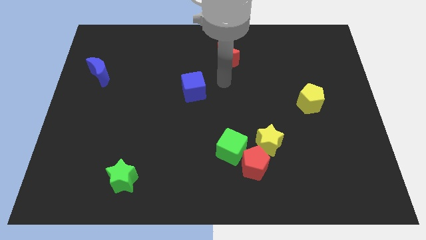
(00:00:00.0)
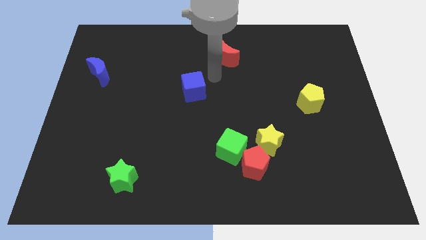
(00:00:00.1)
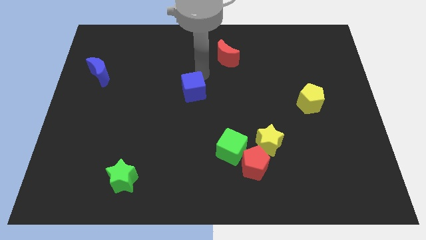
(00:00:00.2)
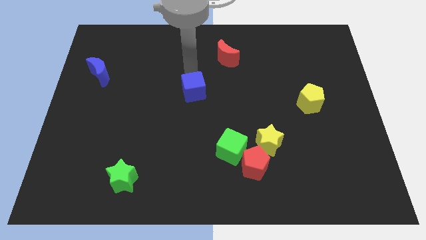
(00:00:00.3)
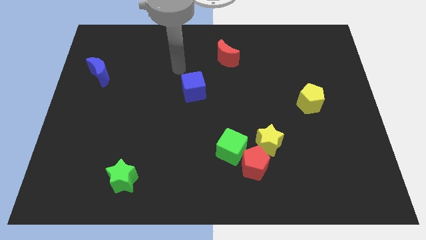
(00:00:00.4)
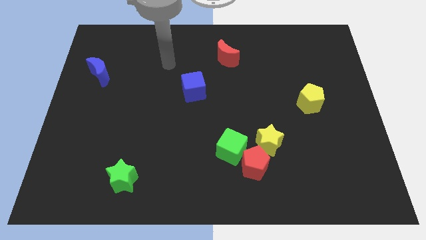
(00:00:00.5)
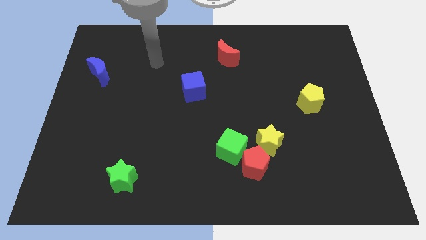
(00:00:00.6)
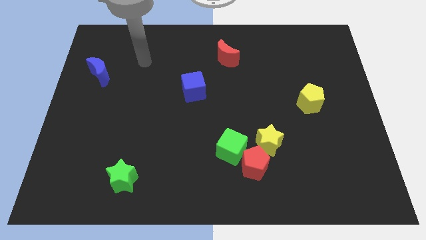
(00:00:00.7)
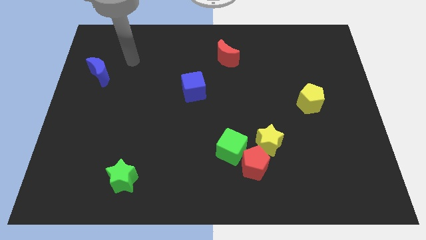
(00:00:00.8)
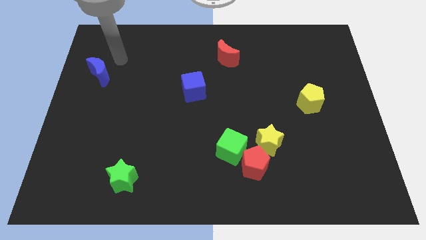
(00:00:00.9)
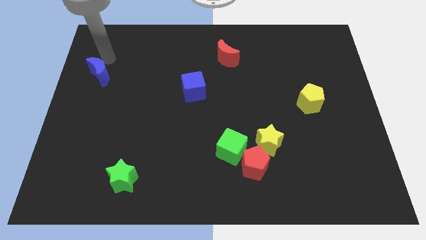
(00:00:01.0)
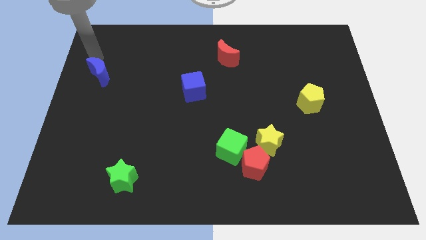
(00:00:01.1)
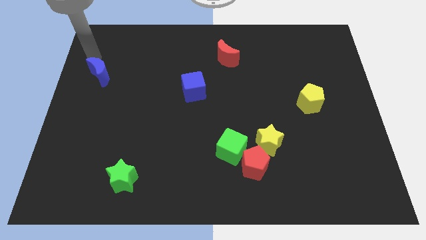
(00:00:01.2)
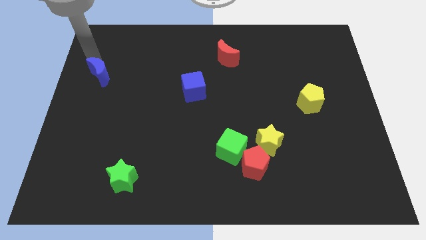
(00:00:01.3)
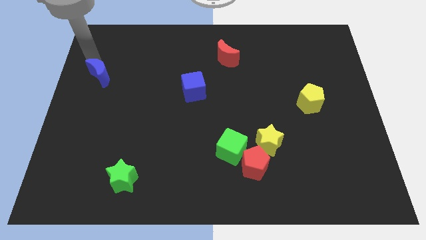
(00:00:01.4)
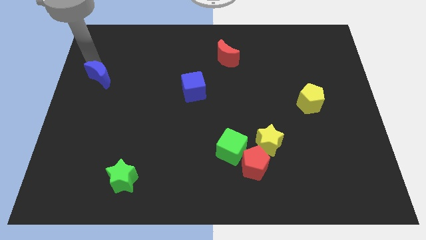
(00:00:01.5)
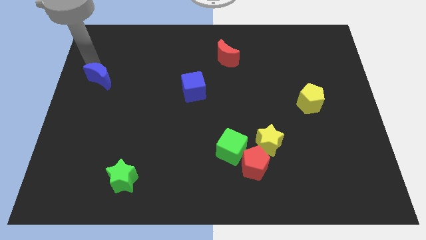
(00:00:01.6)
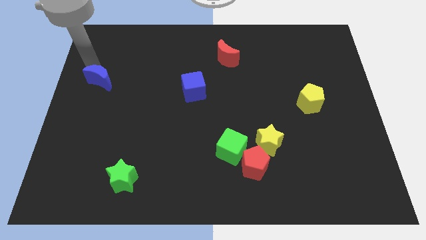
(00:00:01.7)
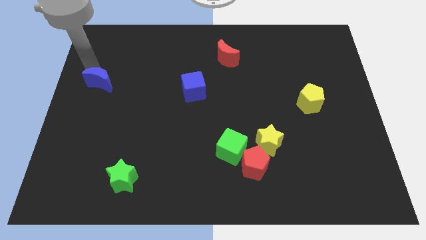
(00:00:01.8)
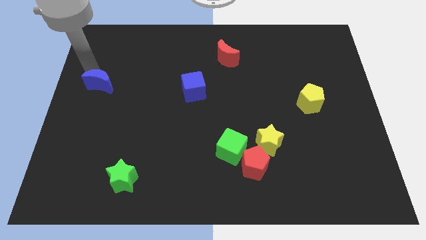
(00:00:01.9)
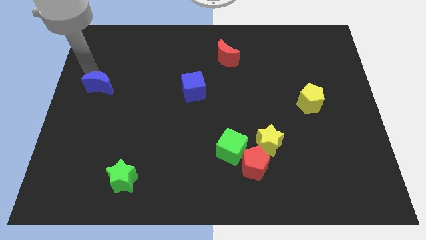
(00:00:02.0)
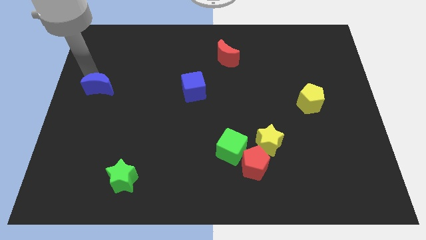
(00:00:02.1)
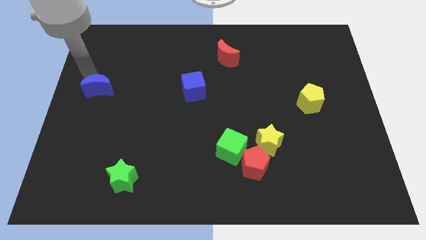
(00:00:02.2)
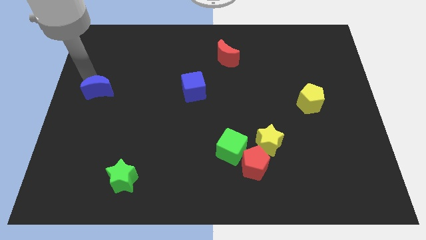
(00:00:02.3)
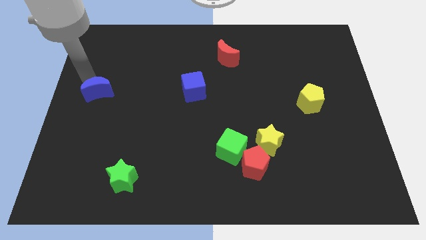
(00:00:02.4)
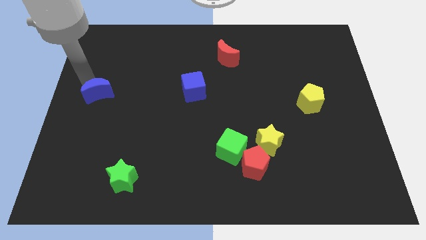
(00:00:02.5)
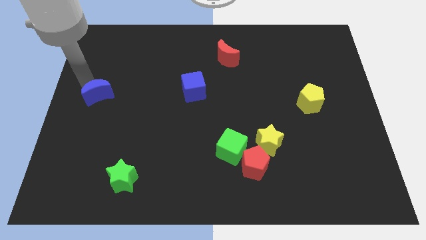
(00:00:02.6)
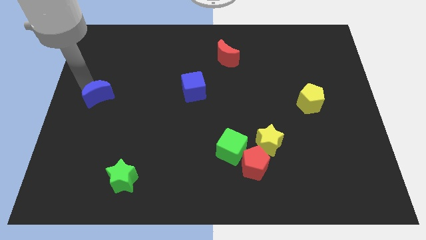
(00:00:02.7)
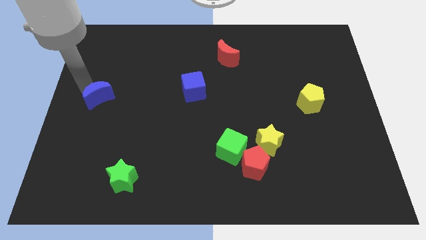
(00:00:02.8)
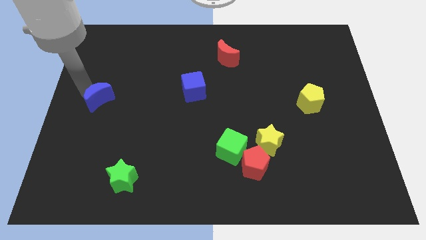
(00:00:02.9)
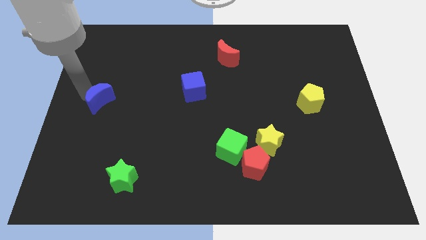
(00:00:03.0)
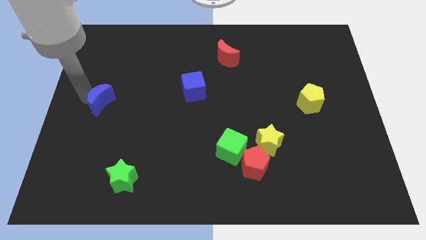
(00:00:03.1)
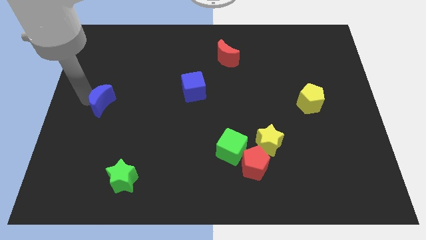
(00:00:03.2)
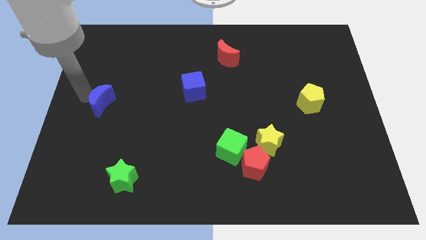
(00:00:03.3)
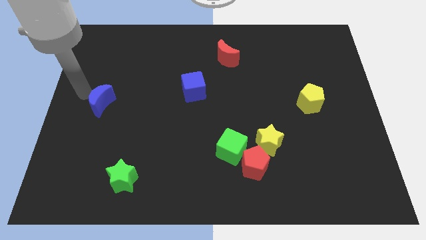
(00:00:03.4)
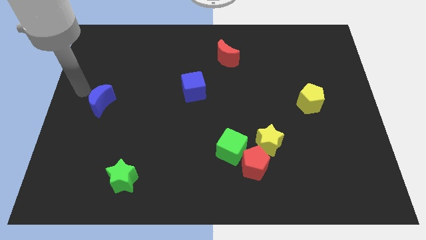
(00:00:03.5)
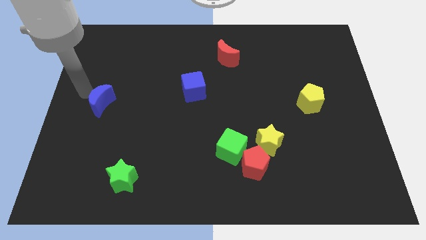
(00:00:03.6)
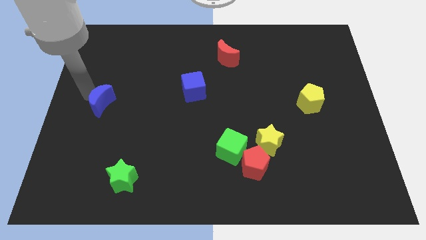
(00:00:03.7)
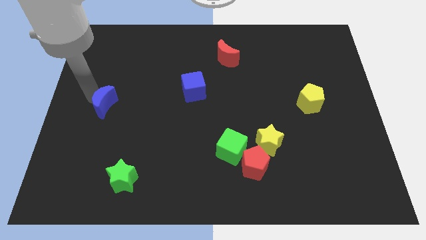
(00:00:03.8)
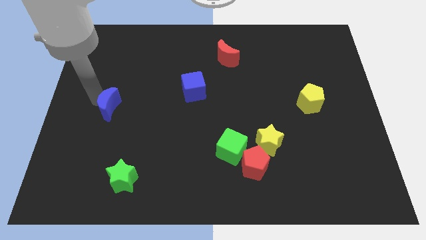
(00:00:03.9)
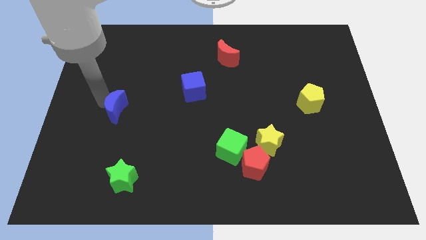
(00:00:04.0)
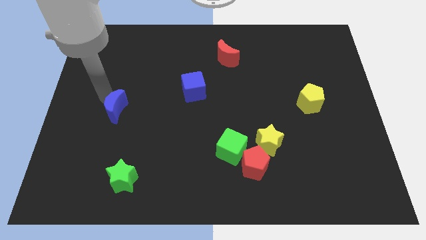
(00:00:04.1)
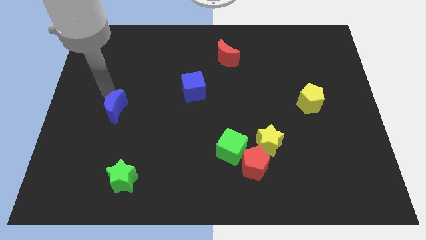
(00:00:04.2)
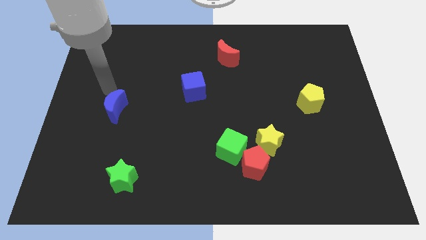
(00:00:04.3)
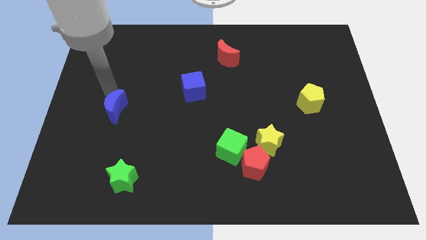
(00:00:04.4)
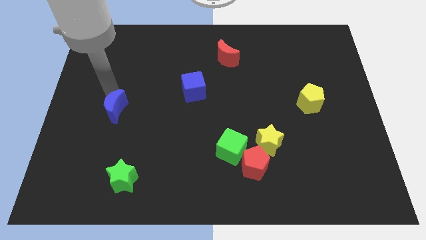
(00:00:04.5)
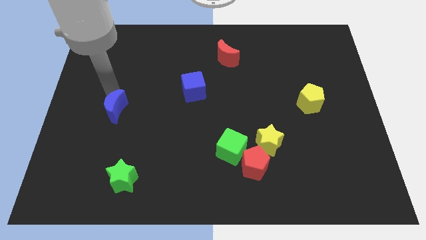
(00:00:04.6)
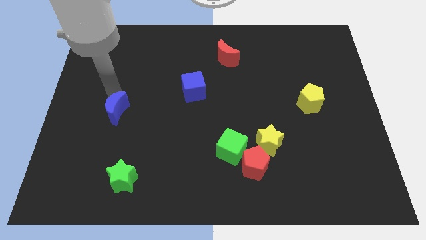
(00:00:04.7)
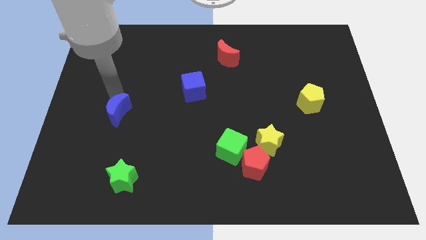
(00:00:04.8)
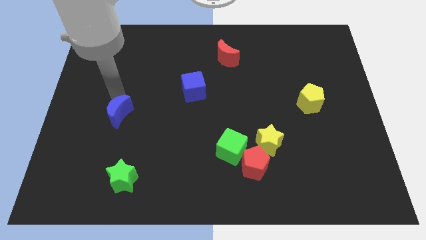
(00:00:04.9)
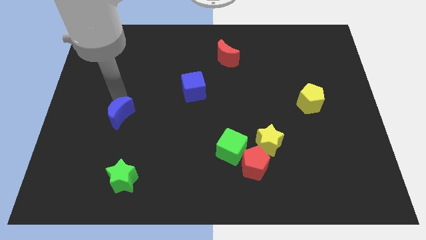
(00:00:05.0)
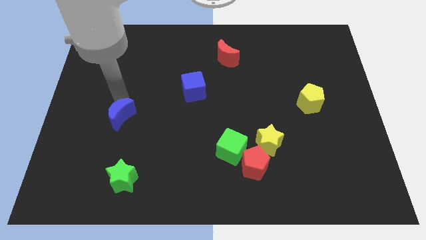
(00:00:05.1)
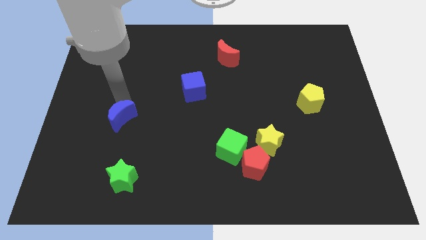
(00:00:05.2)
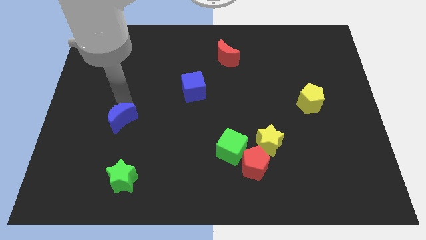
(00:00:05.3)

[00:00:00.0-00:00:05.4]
move the blue moon above the green star

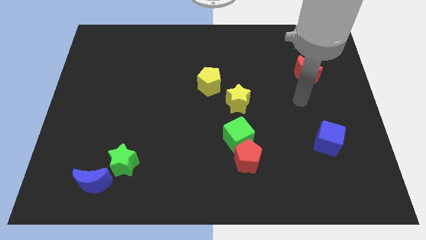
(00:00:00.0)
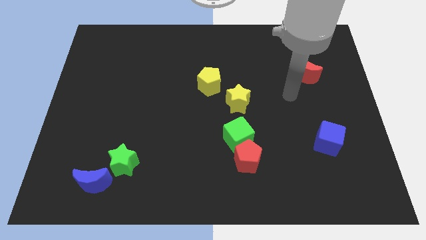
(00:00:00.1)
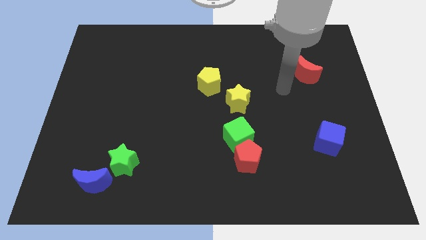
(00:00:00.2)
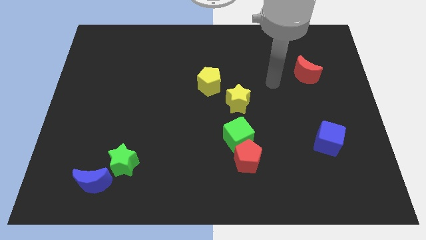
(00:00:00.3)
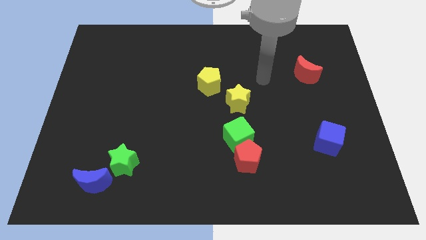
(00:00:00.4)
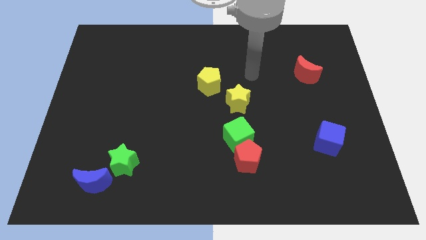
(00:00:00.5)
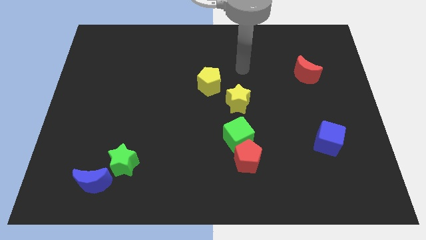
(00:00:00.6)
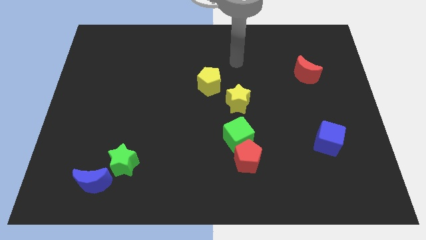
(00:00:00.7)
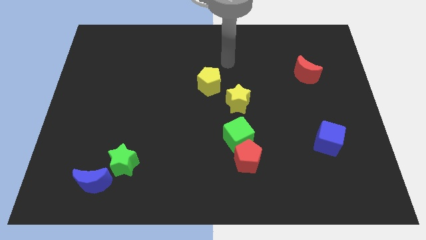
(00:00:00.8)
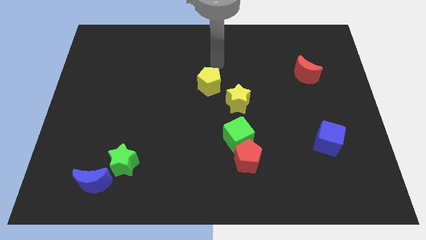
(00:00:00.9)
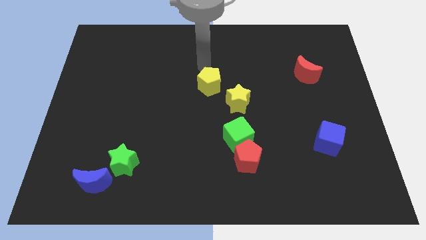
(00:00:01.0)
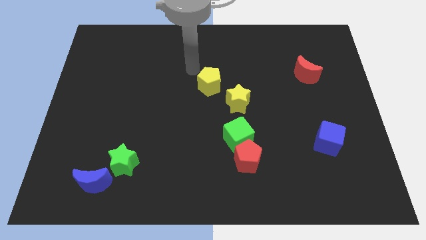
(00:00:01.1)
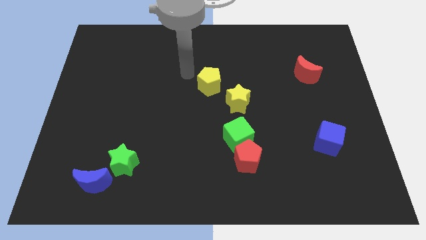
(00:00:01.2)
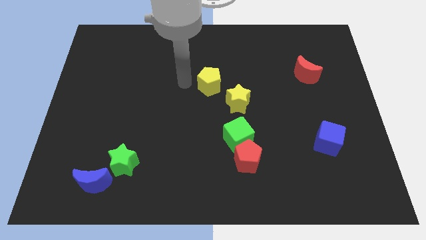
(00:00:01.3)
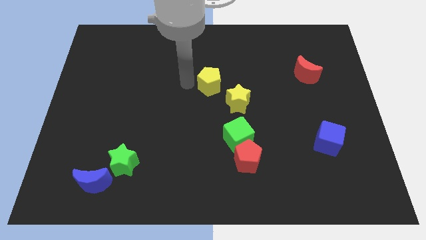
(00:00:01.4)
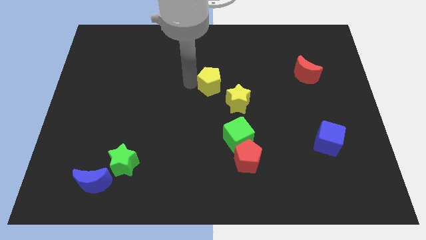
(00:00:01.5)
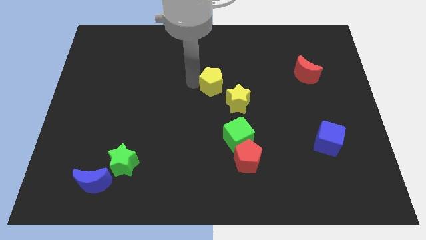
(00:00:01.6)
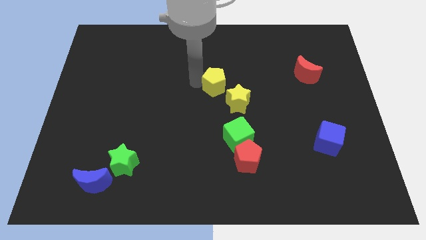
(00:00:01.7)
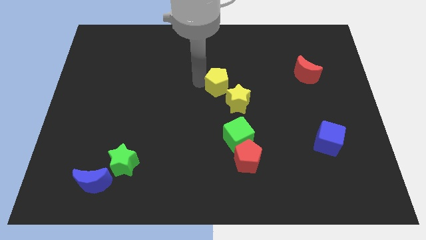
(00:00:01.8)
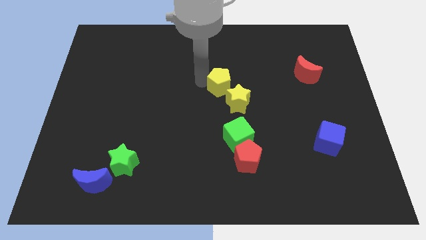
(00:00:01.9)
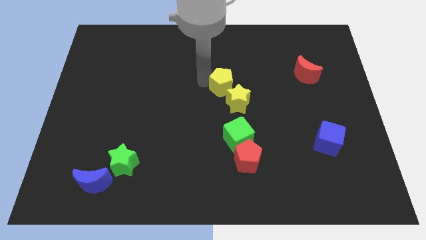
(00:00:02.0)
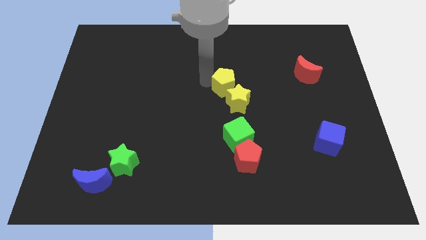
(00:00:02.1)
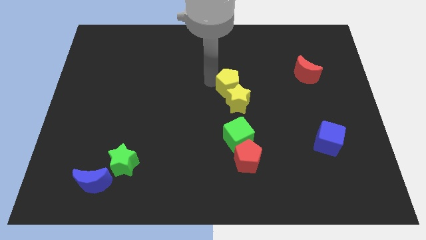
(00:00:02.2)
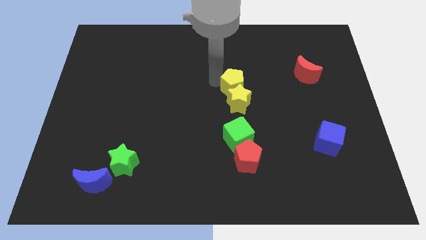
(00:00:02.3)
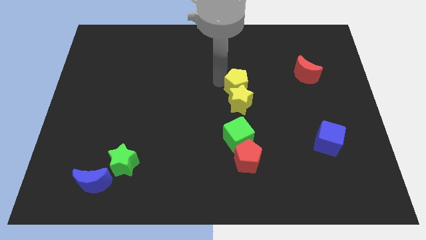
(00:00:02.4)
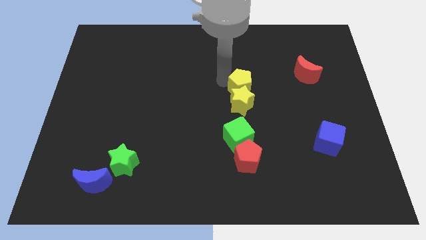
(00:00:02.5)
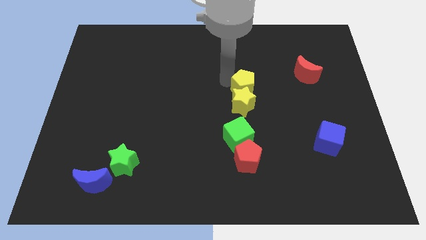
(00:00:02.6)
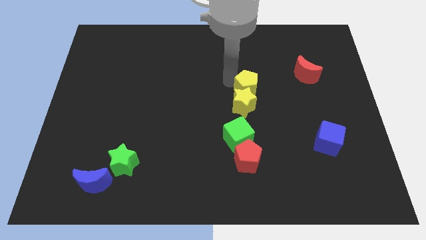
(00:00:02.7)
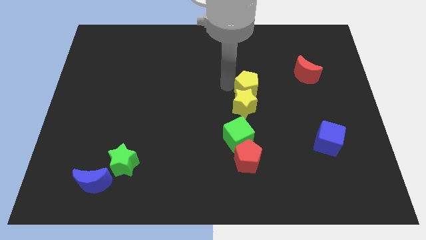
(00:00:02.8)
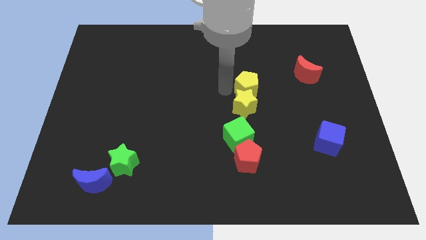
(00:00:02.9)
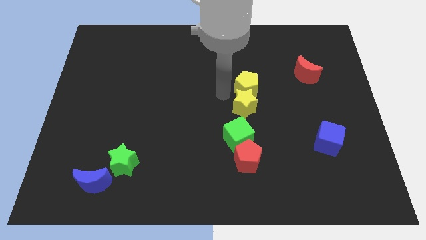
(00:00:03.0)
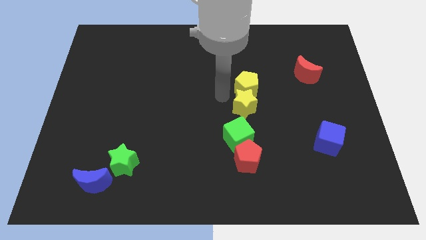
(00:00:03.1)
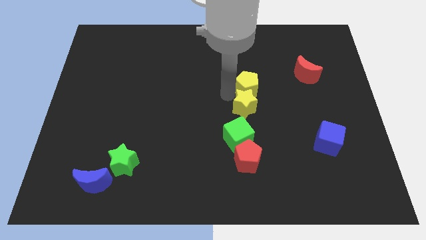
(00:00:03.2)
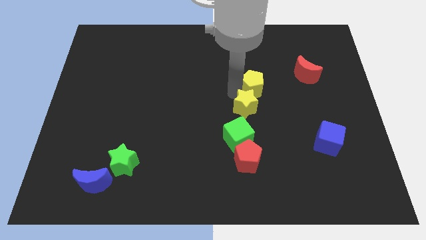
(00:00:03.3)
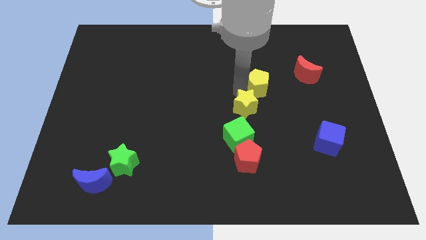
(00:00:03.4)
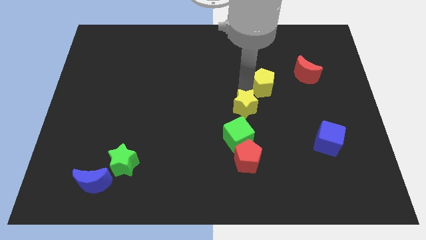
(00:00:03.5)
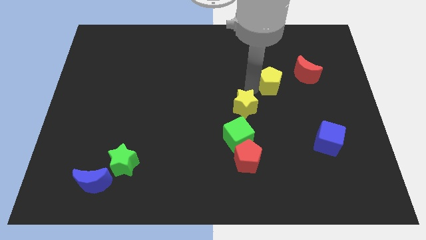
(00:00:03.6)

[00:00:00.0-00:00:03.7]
move the yellow pentagon to the bottom left of the red moon
